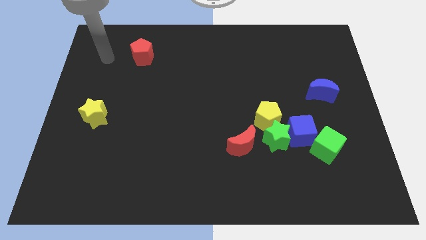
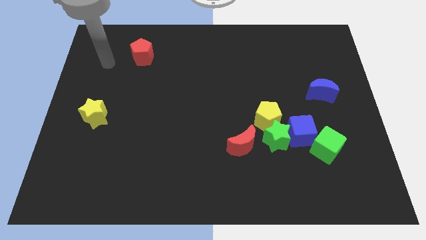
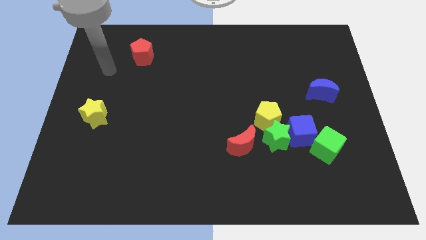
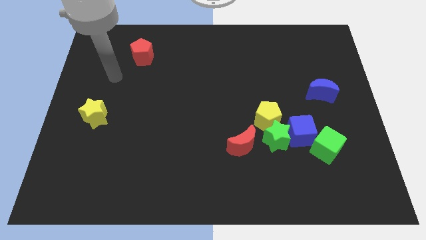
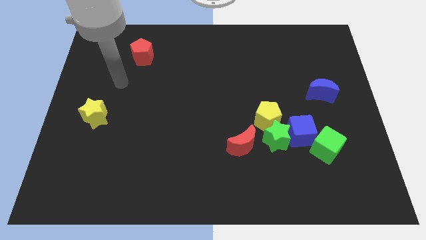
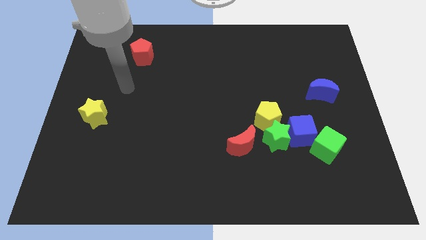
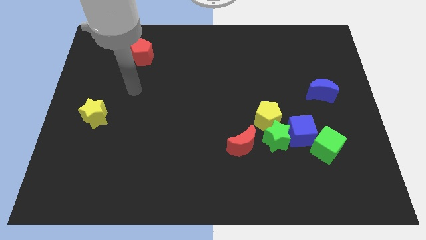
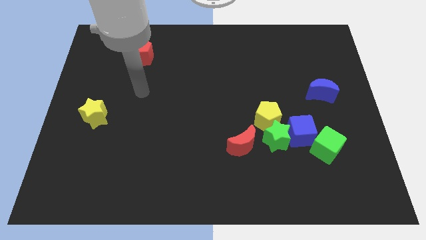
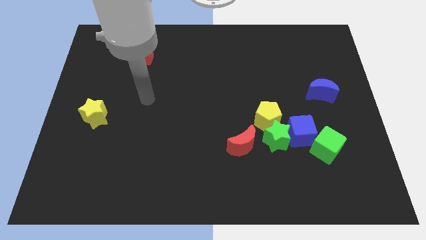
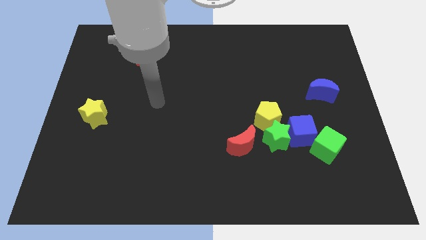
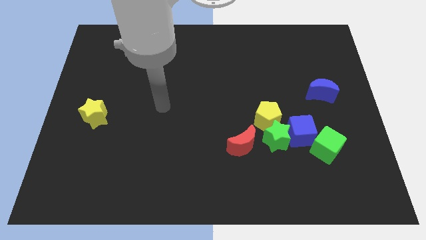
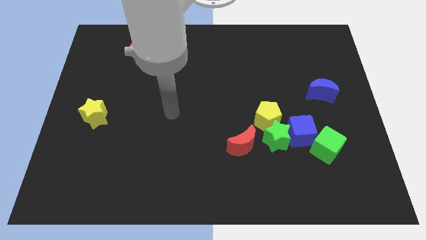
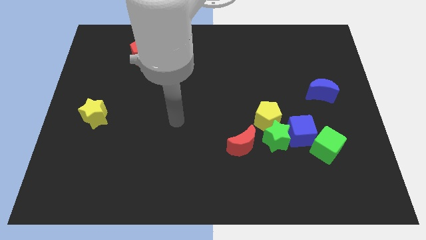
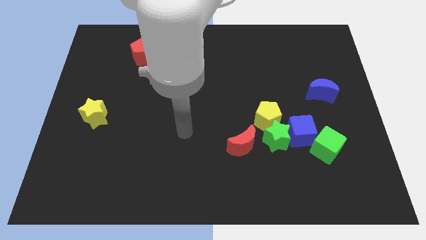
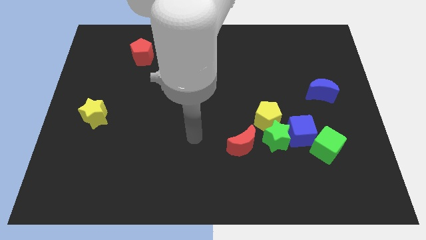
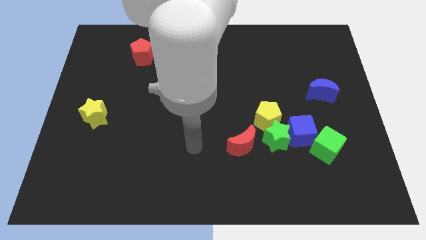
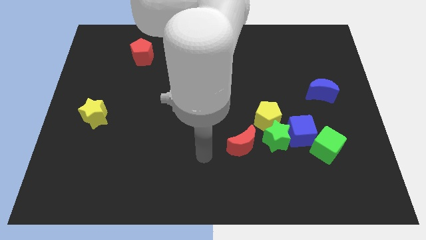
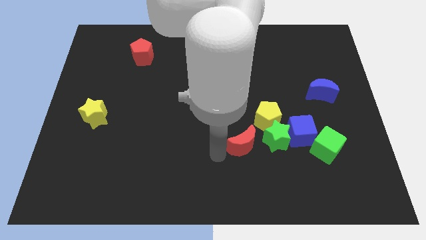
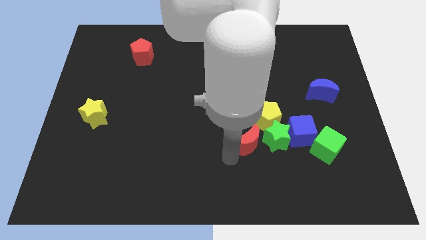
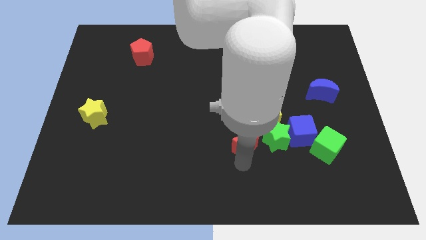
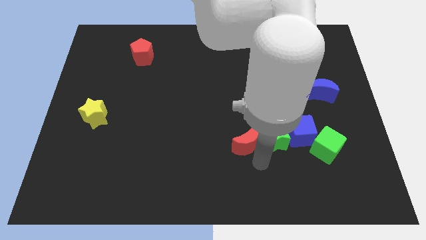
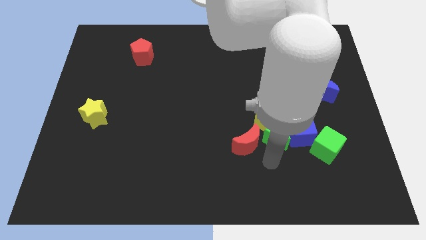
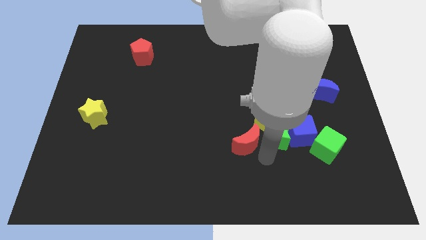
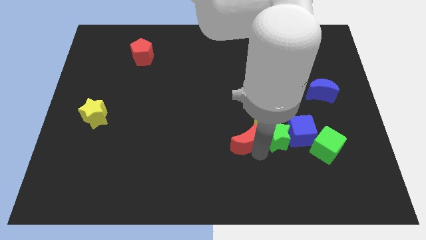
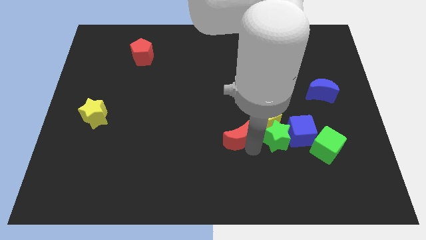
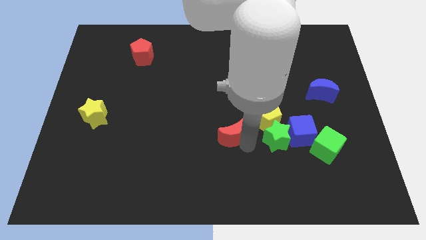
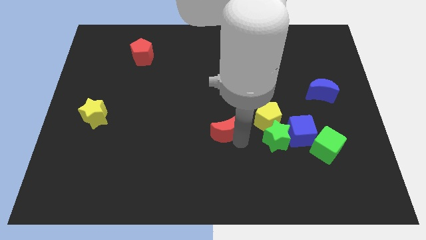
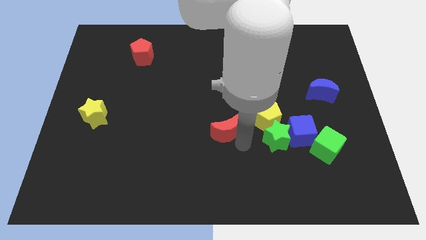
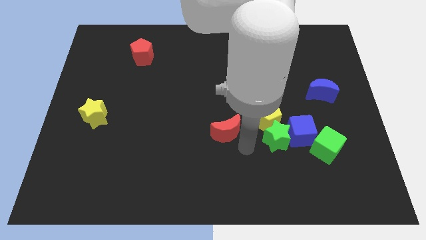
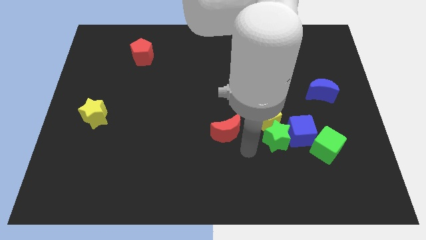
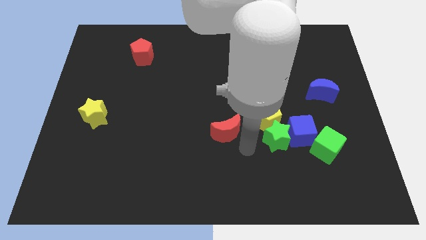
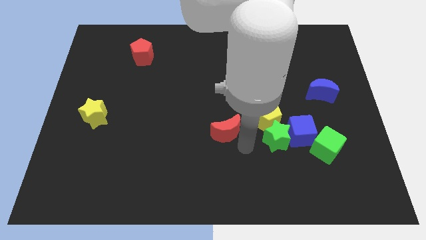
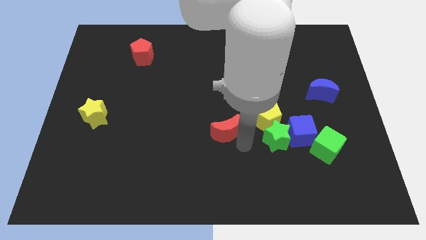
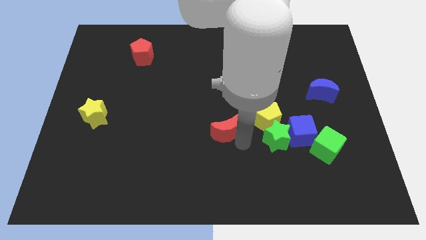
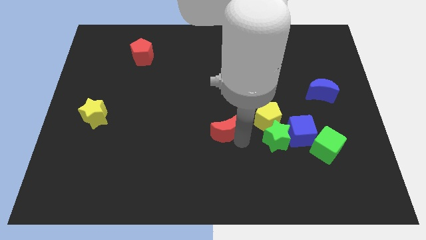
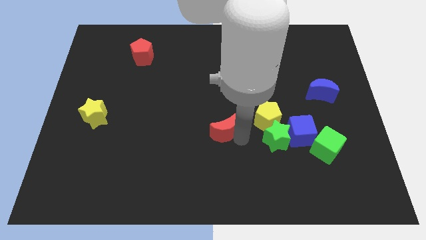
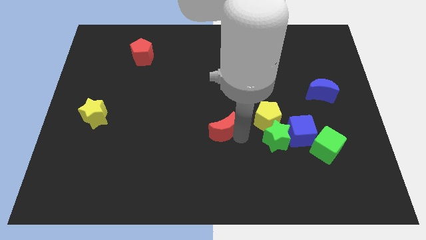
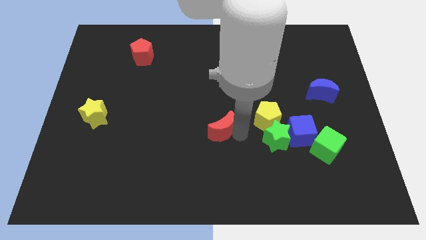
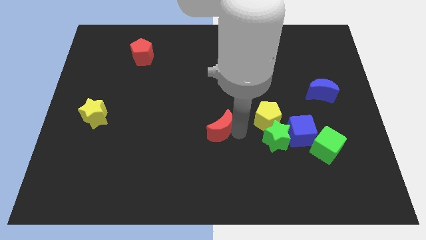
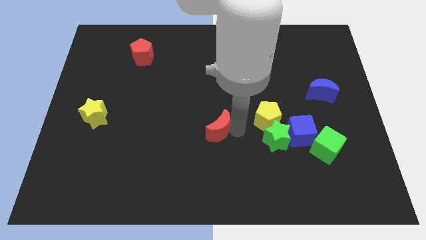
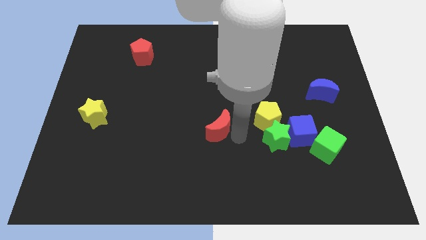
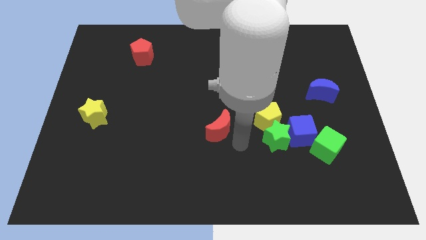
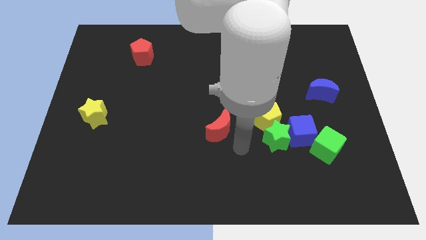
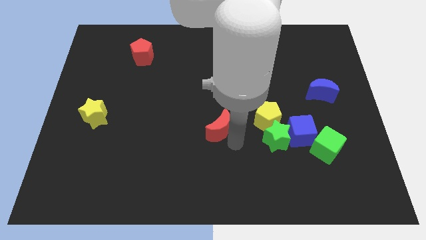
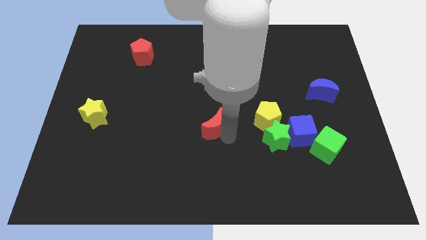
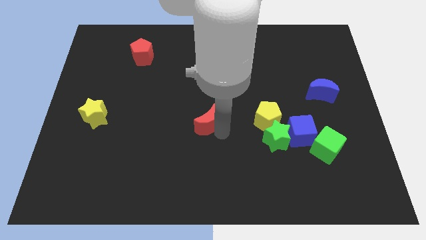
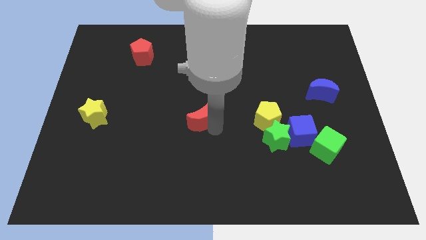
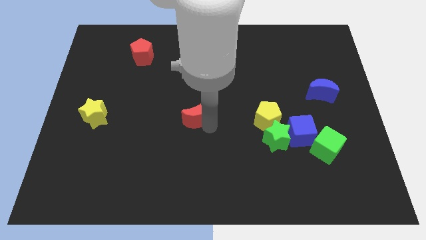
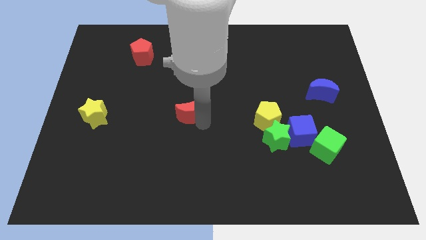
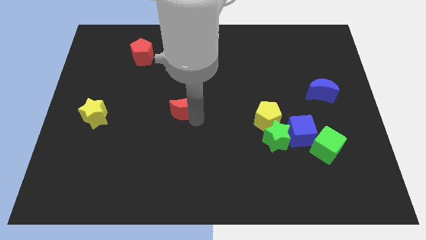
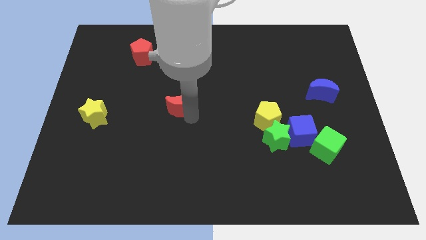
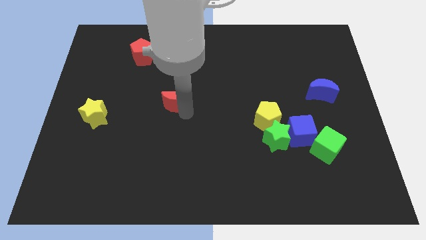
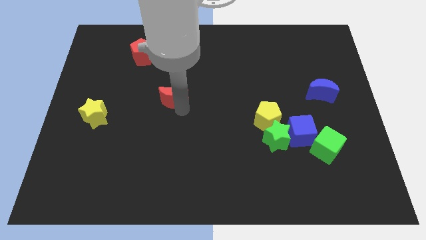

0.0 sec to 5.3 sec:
push the red moon upwards and to the left diagonally

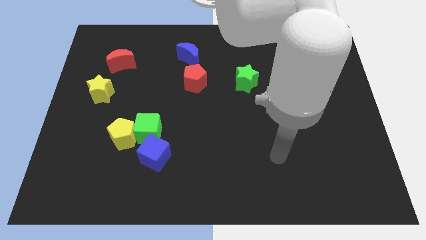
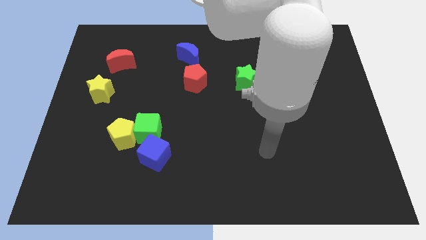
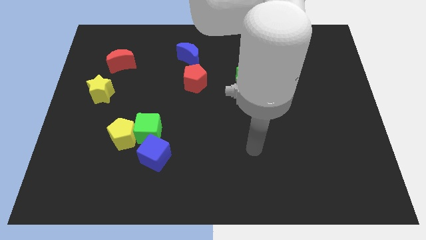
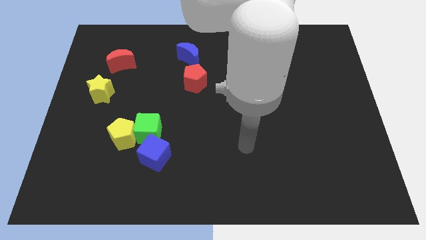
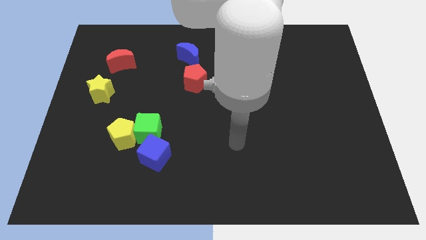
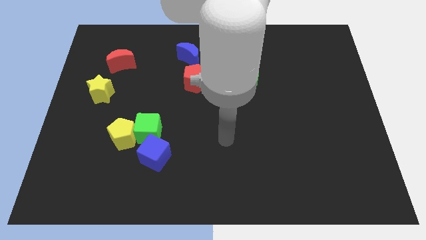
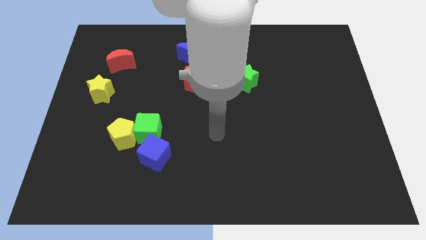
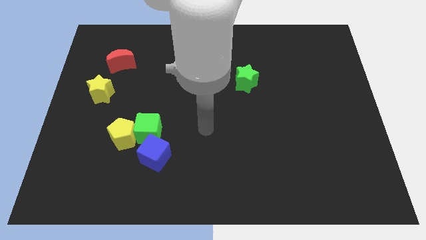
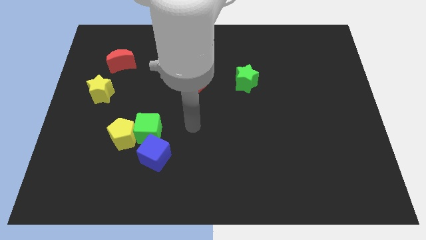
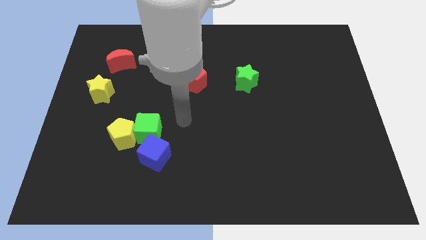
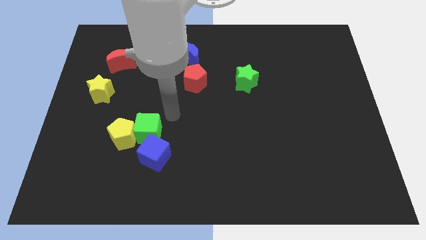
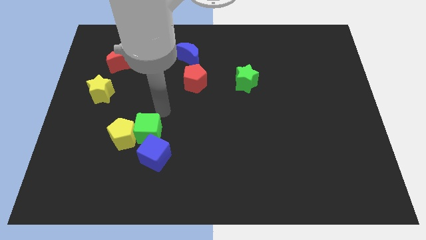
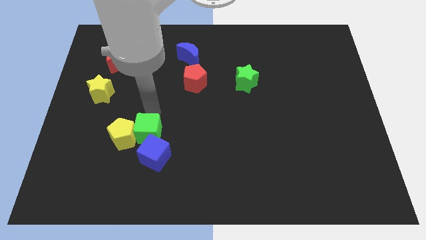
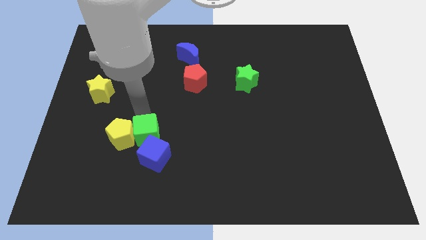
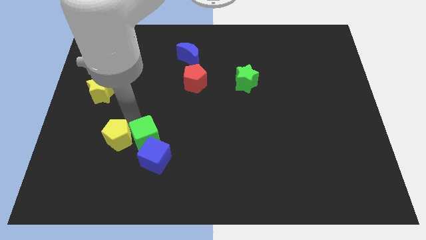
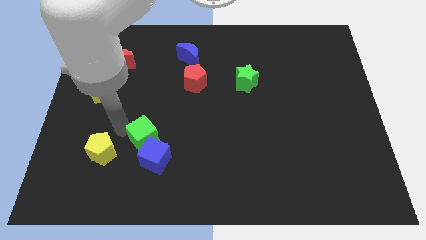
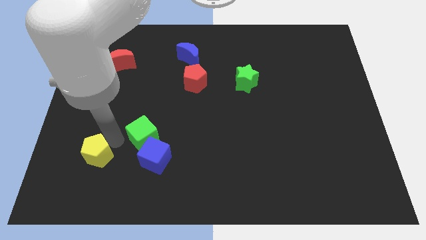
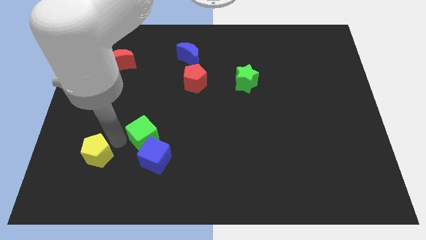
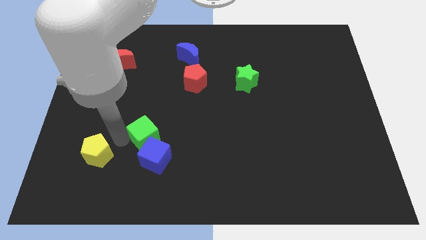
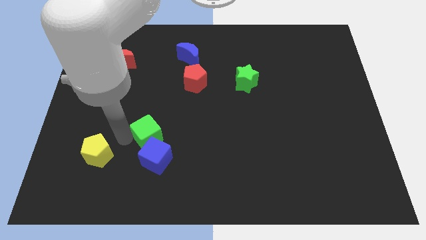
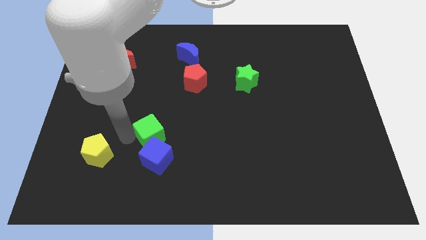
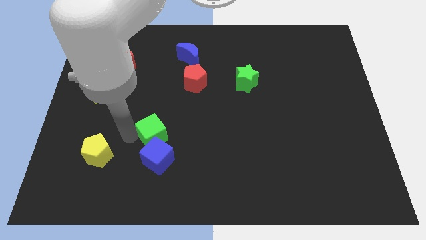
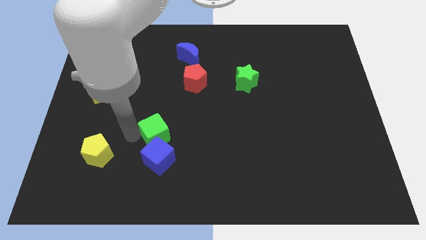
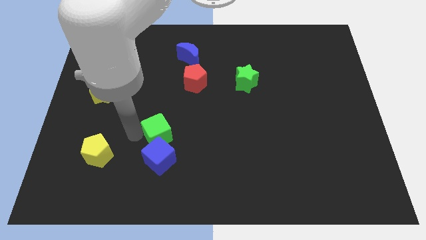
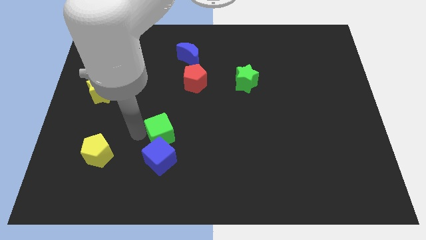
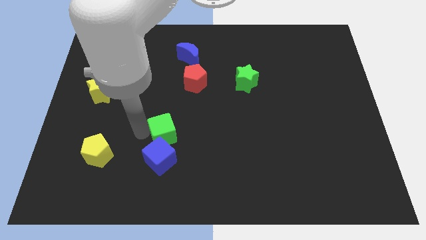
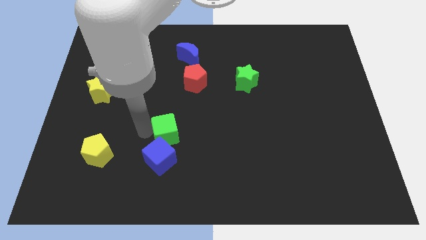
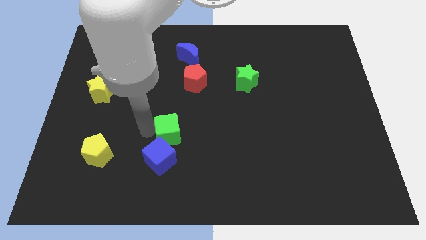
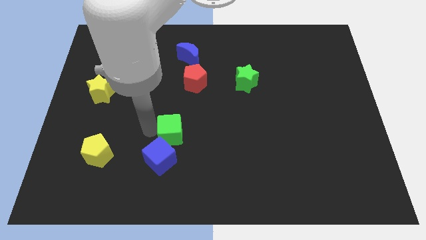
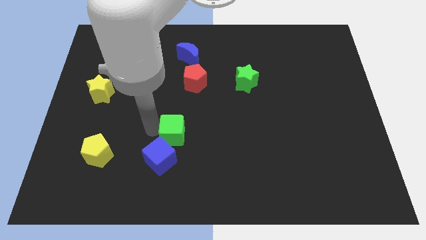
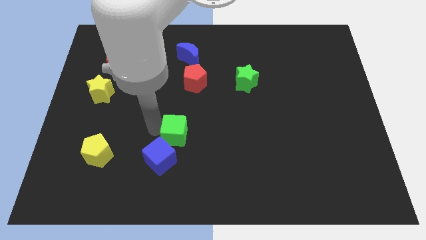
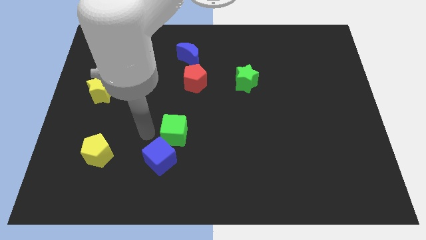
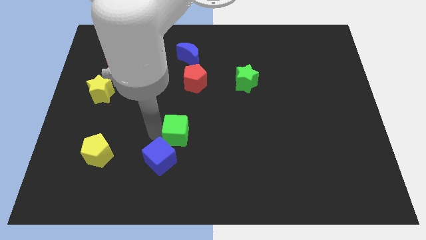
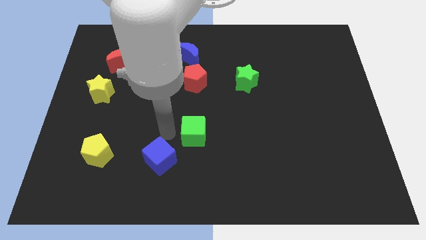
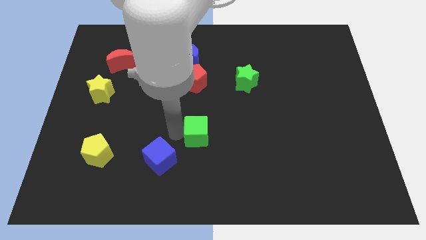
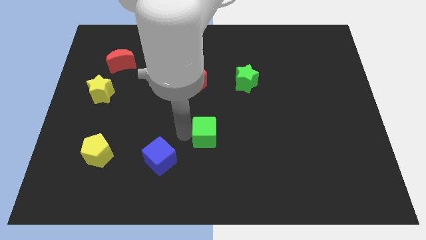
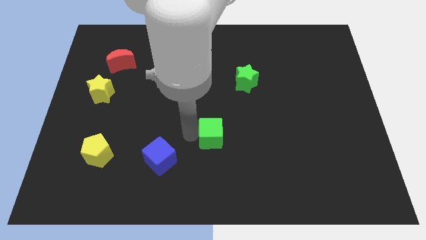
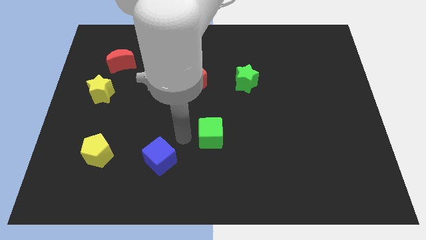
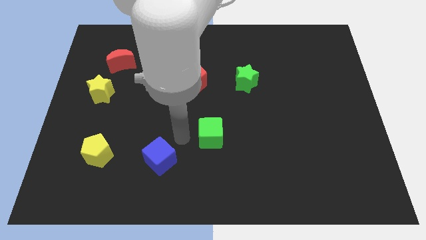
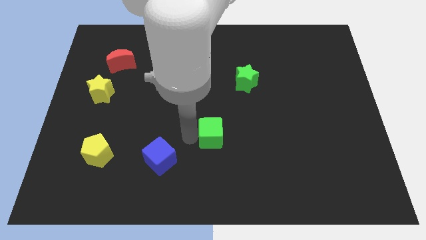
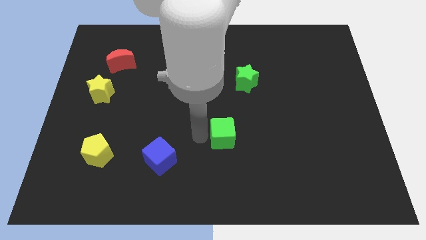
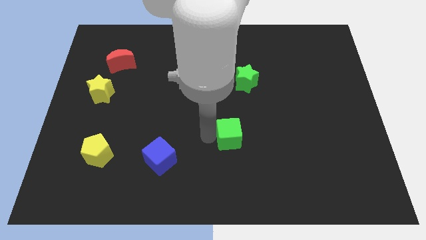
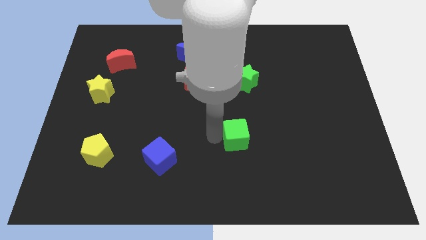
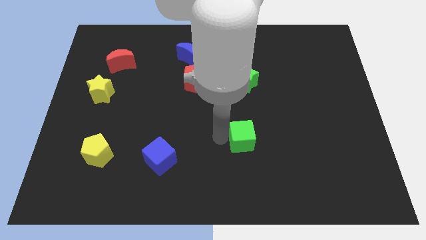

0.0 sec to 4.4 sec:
push the green cube to the right
